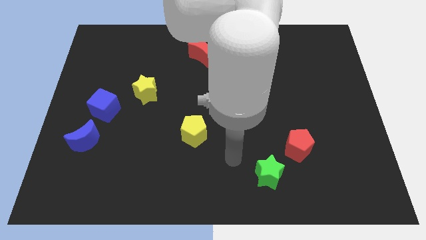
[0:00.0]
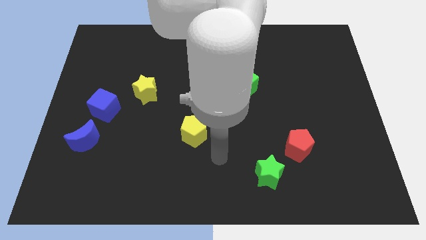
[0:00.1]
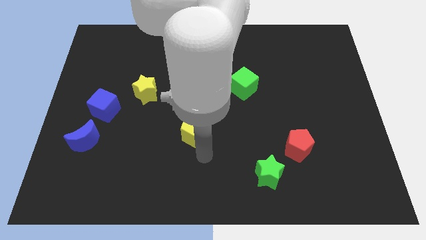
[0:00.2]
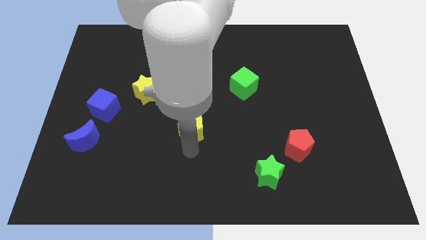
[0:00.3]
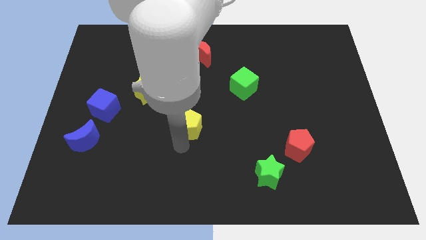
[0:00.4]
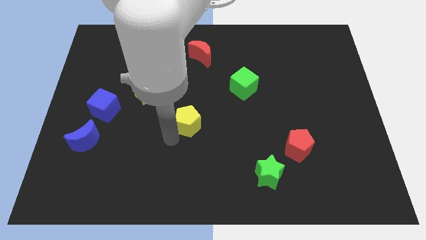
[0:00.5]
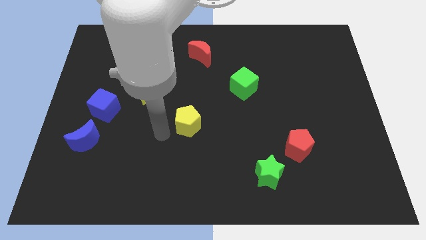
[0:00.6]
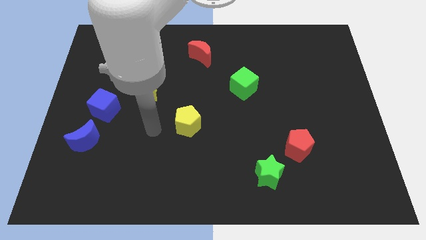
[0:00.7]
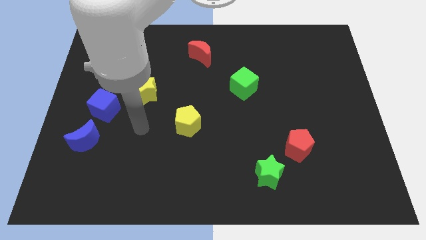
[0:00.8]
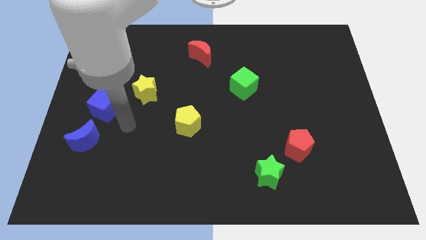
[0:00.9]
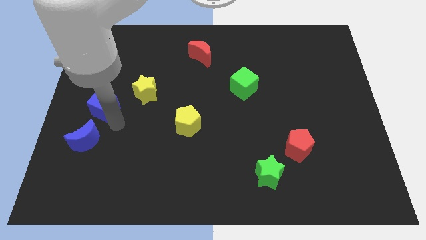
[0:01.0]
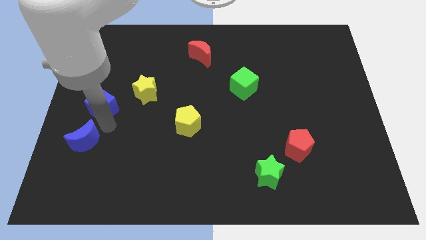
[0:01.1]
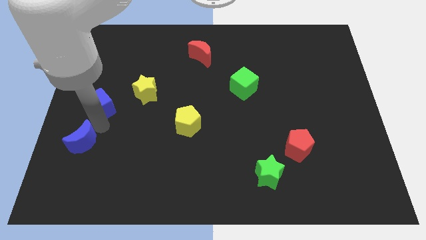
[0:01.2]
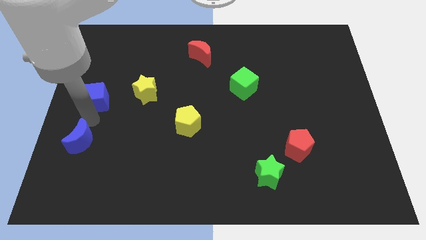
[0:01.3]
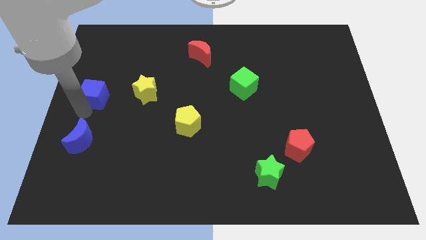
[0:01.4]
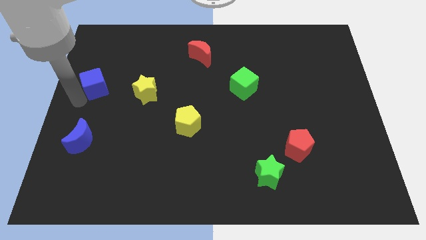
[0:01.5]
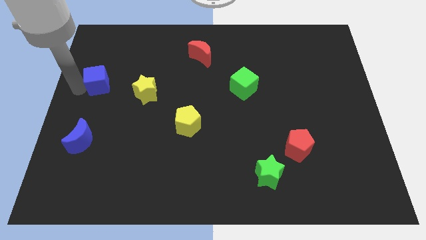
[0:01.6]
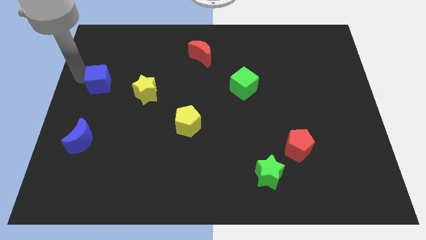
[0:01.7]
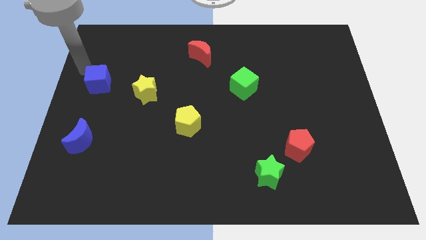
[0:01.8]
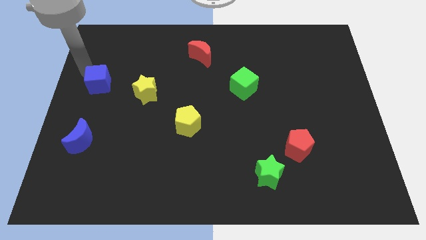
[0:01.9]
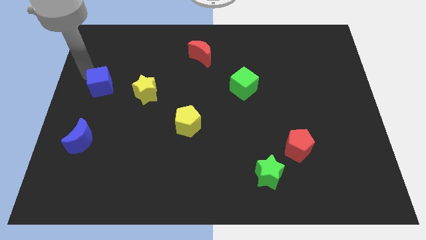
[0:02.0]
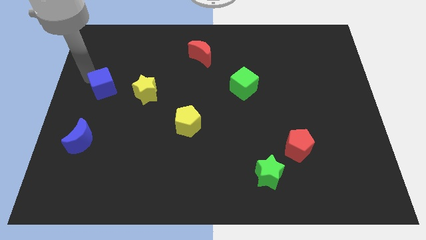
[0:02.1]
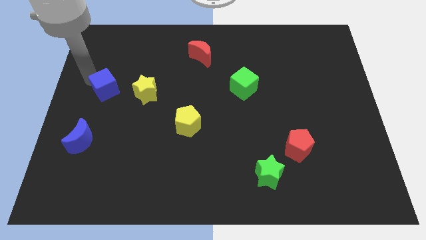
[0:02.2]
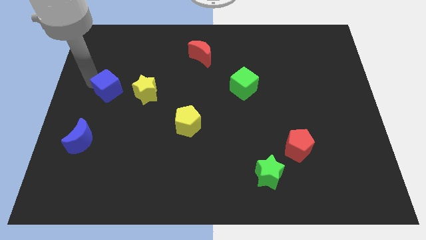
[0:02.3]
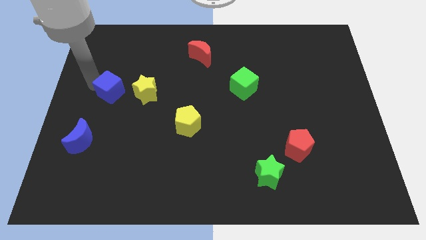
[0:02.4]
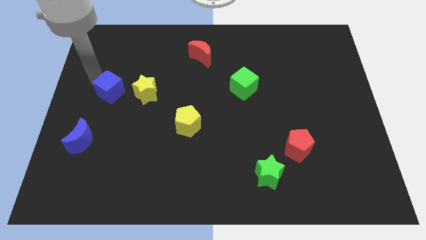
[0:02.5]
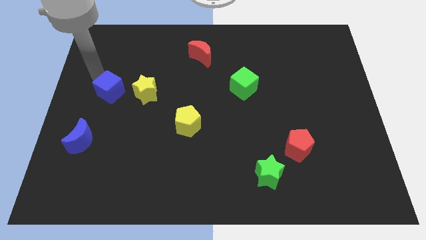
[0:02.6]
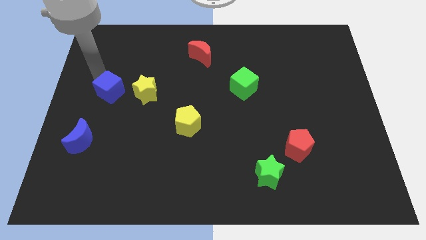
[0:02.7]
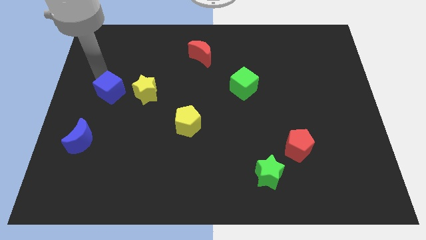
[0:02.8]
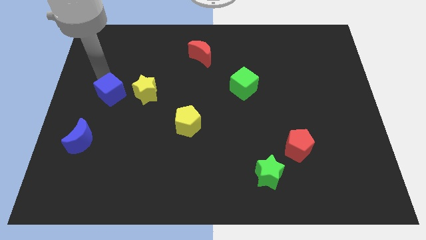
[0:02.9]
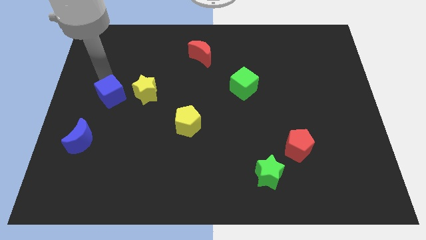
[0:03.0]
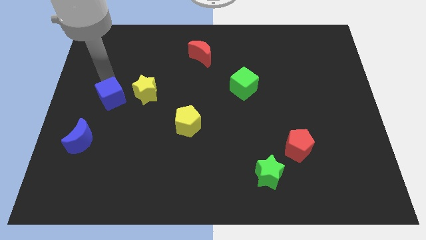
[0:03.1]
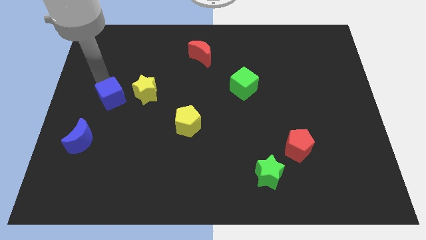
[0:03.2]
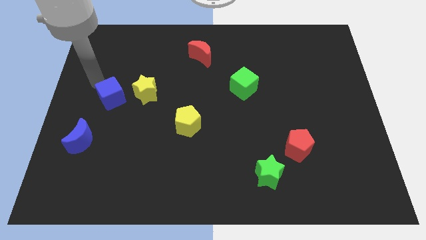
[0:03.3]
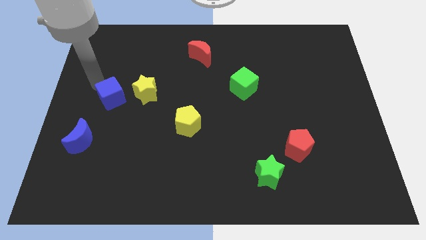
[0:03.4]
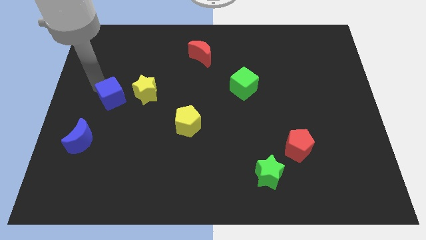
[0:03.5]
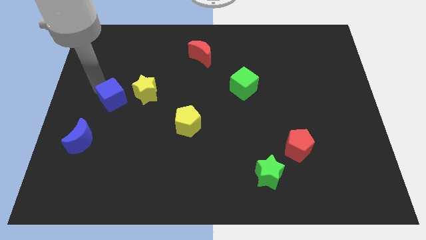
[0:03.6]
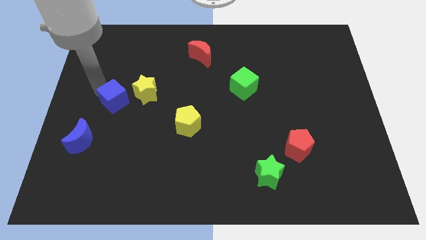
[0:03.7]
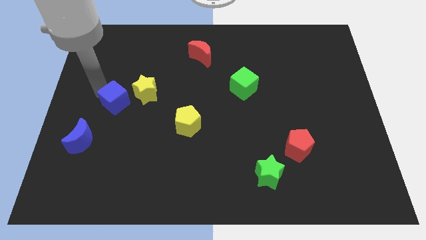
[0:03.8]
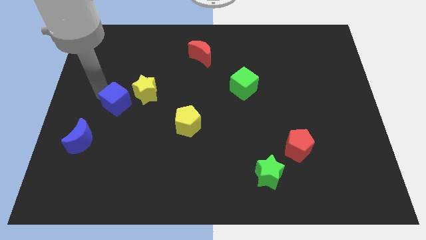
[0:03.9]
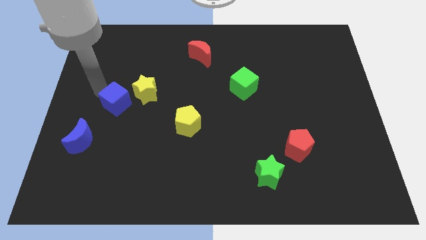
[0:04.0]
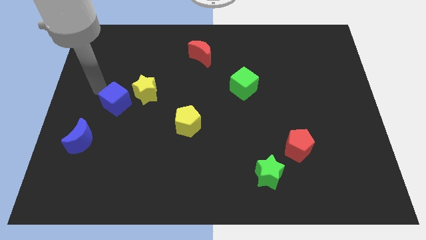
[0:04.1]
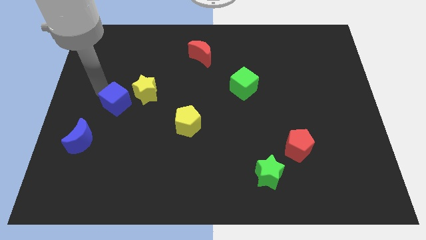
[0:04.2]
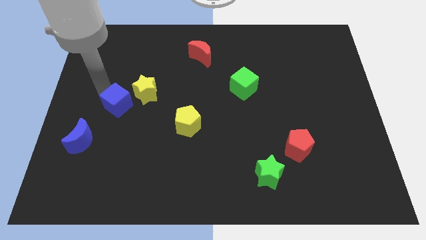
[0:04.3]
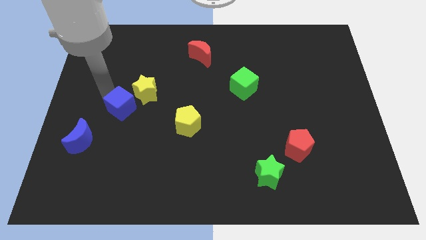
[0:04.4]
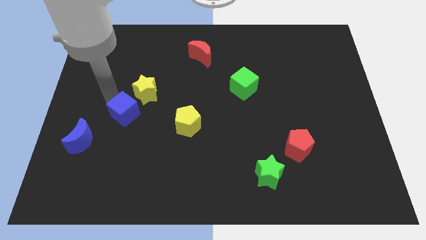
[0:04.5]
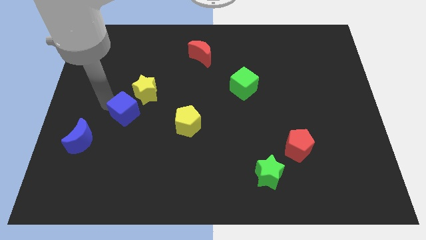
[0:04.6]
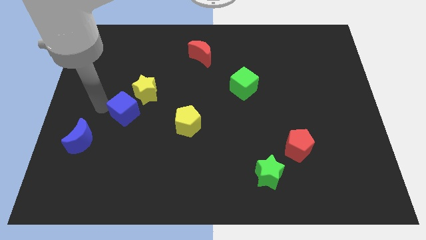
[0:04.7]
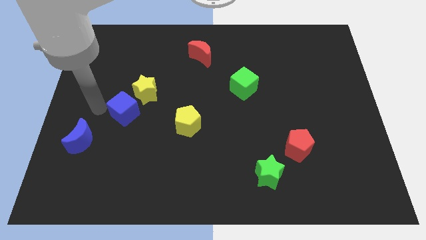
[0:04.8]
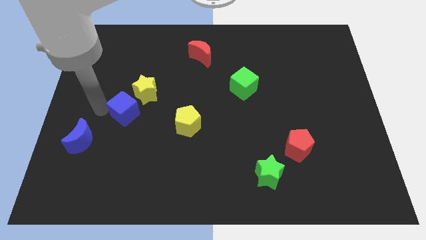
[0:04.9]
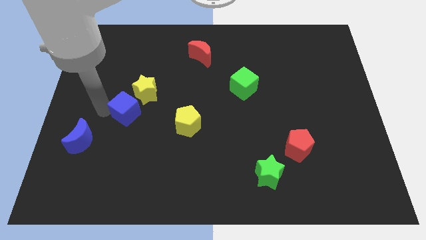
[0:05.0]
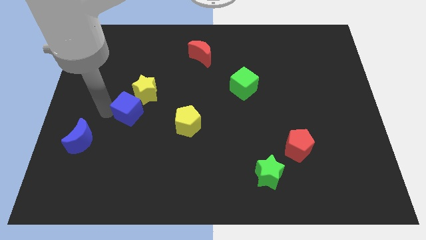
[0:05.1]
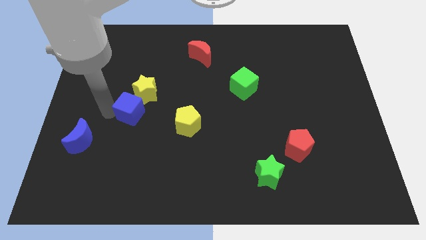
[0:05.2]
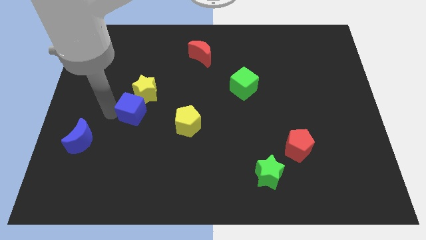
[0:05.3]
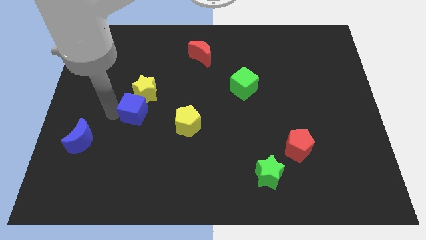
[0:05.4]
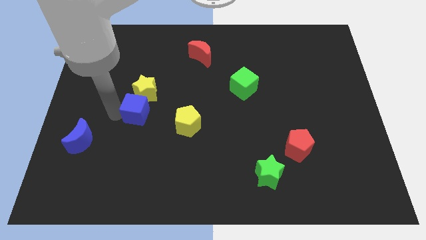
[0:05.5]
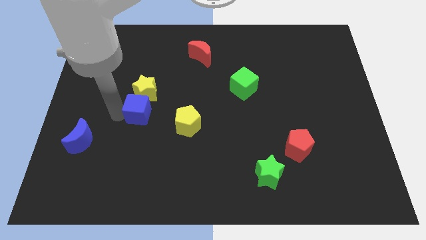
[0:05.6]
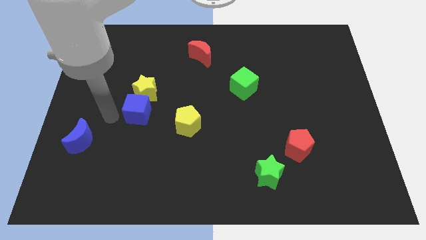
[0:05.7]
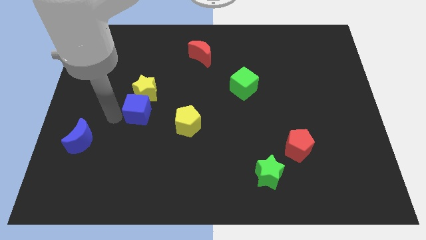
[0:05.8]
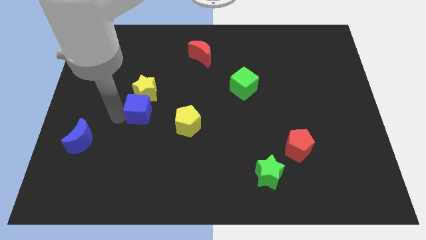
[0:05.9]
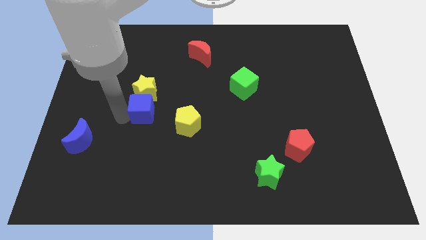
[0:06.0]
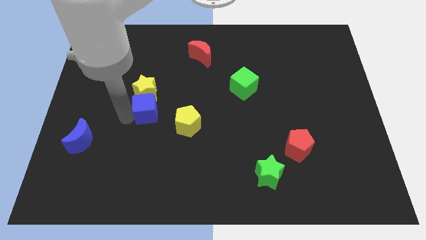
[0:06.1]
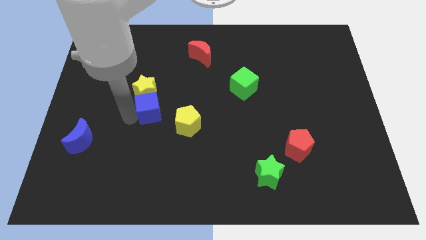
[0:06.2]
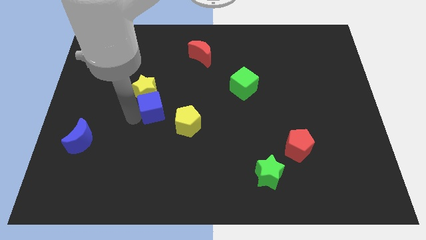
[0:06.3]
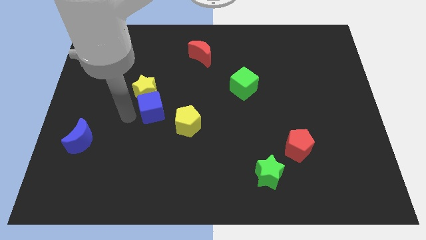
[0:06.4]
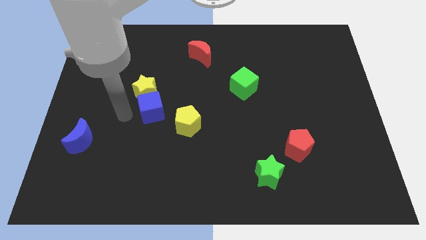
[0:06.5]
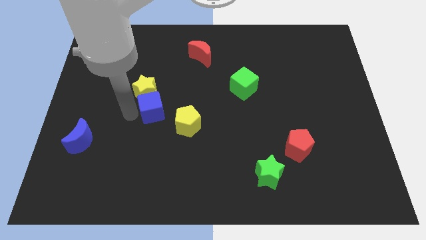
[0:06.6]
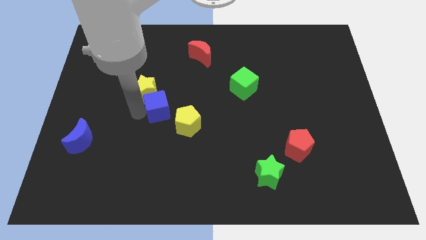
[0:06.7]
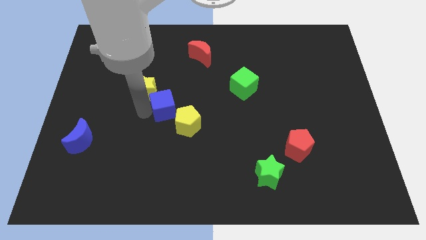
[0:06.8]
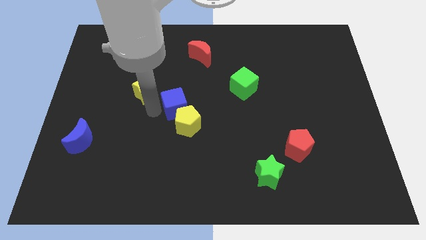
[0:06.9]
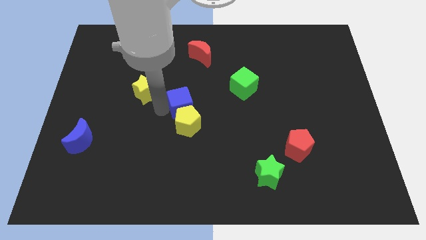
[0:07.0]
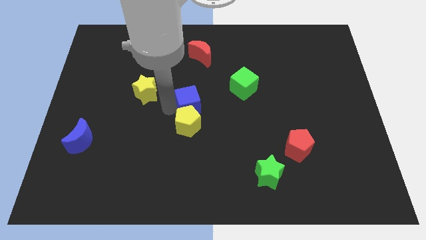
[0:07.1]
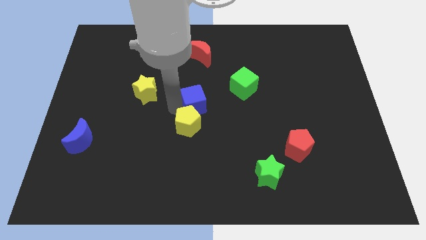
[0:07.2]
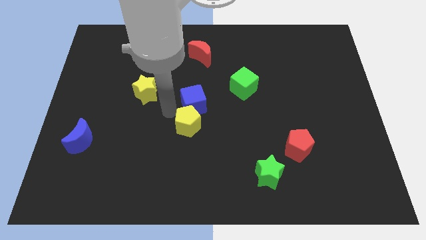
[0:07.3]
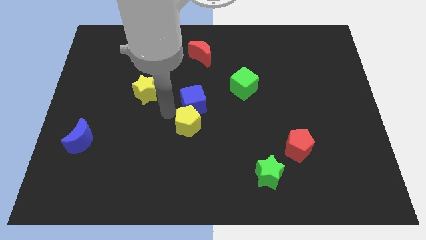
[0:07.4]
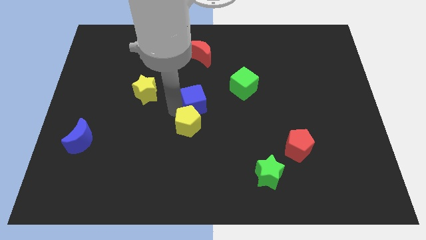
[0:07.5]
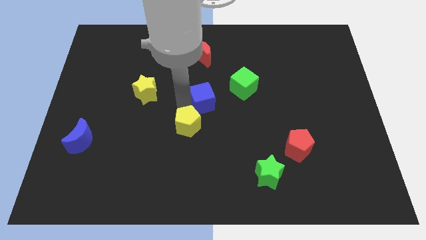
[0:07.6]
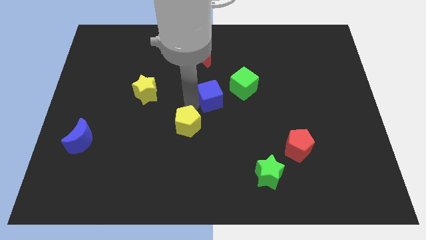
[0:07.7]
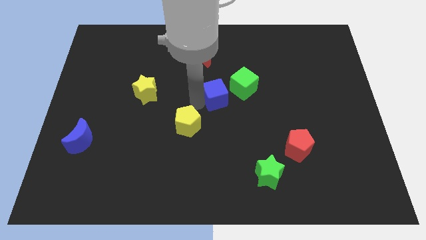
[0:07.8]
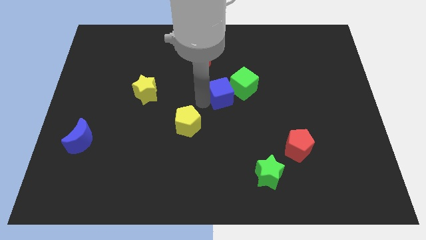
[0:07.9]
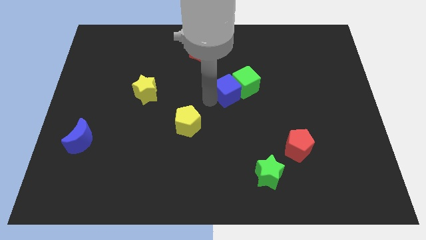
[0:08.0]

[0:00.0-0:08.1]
move the blue cube towards the green cube

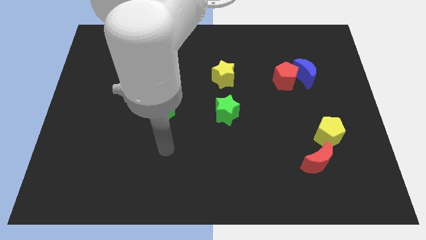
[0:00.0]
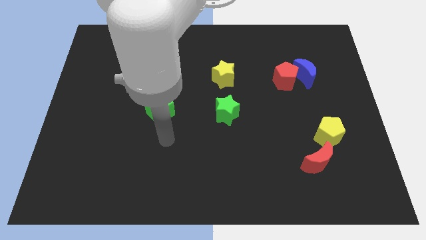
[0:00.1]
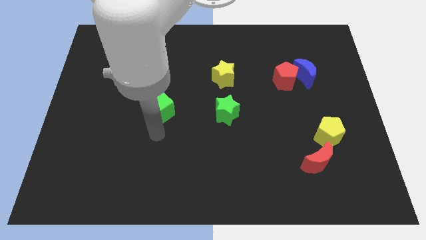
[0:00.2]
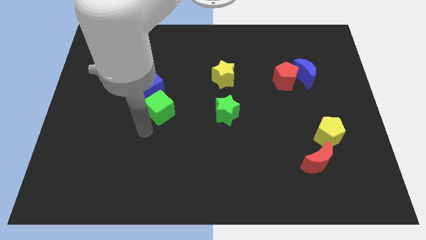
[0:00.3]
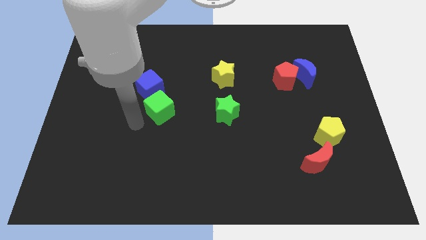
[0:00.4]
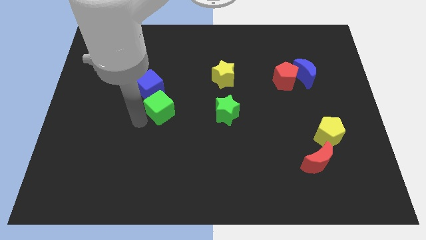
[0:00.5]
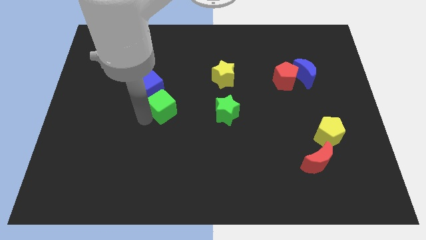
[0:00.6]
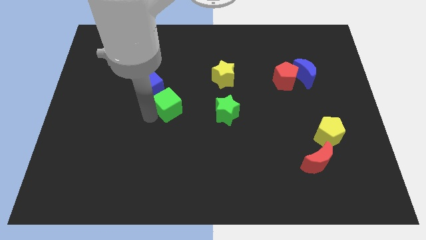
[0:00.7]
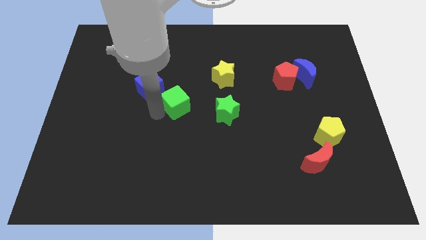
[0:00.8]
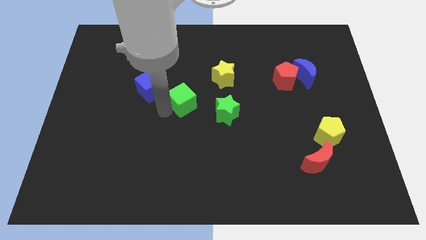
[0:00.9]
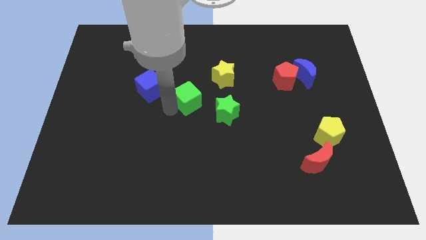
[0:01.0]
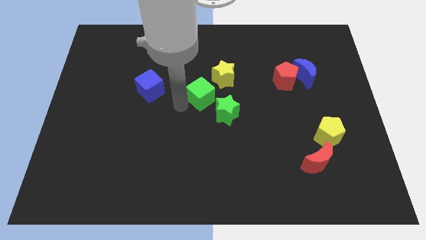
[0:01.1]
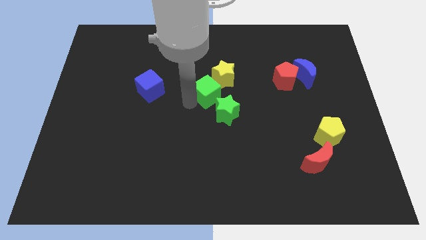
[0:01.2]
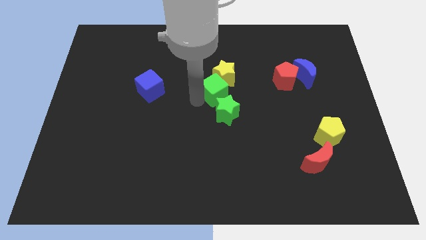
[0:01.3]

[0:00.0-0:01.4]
move the green cube next to the yellow star
